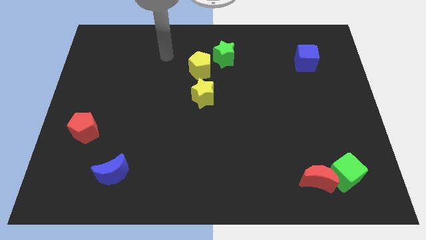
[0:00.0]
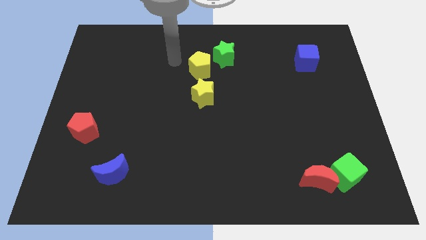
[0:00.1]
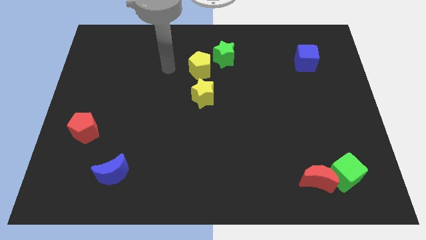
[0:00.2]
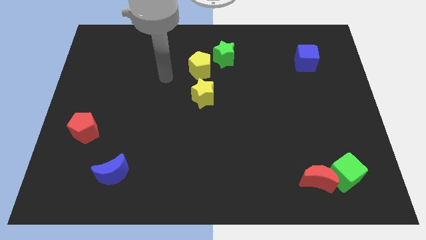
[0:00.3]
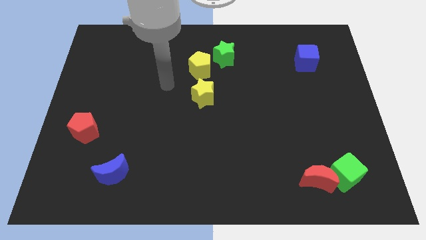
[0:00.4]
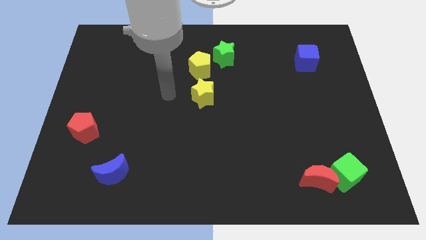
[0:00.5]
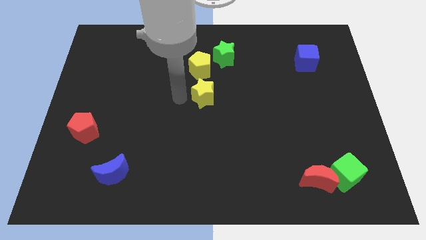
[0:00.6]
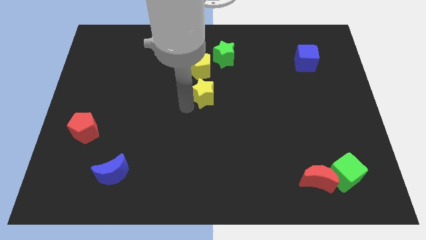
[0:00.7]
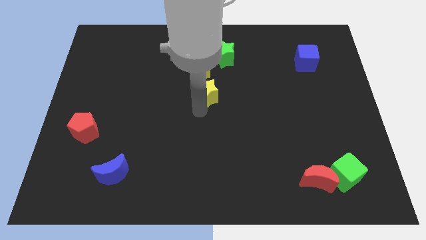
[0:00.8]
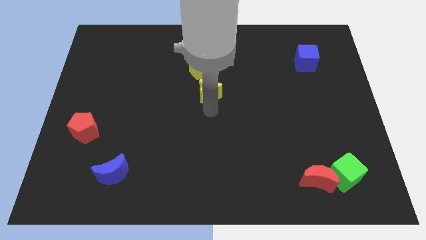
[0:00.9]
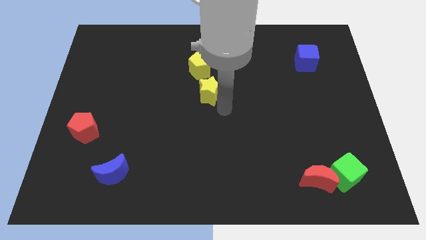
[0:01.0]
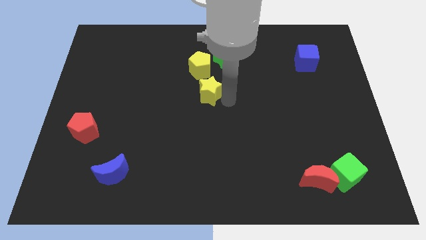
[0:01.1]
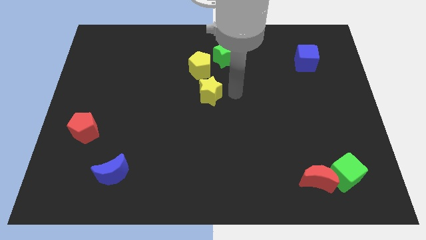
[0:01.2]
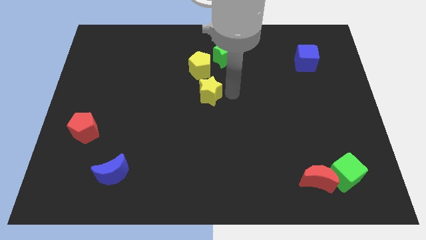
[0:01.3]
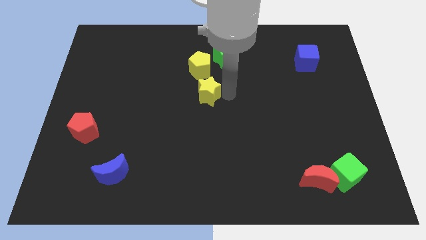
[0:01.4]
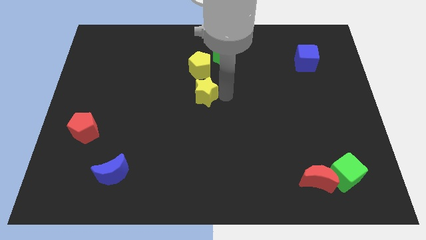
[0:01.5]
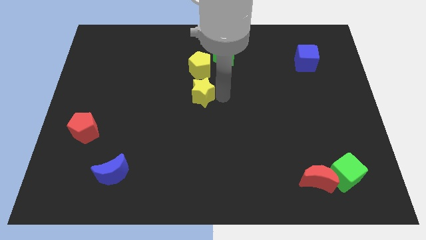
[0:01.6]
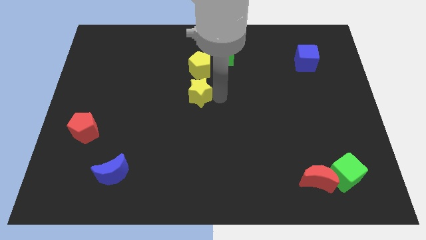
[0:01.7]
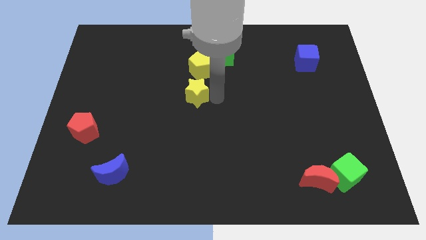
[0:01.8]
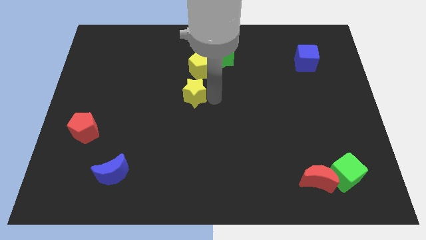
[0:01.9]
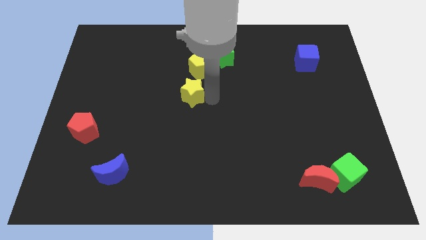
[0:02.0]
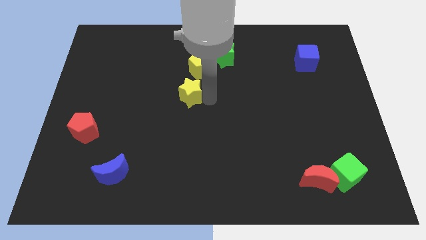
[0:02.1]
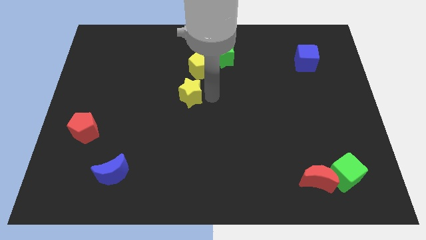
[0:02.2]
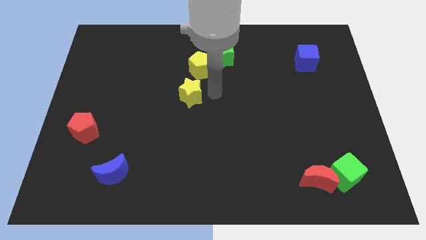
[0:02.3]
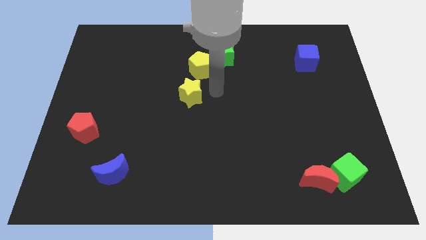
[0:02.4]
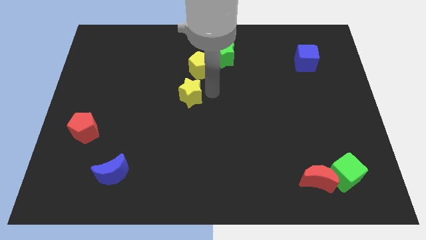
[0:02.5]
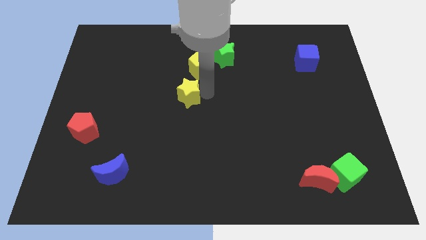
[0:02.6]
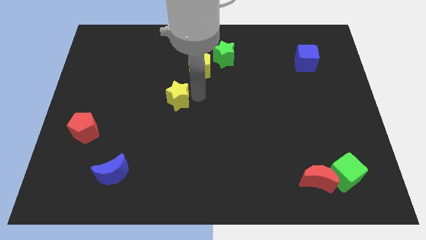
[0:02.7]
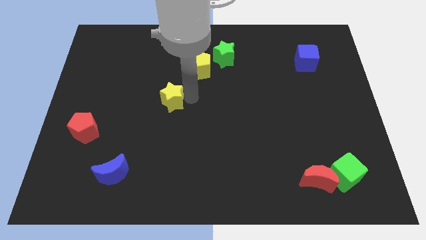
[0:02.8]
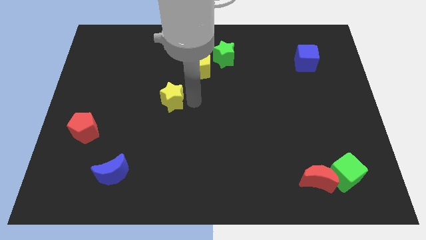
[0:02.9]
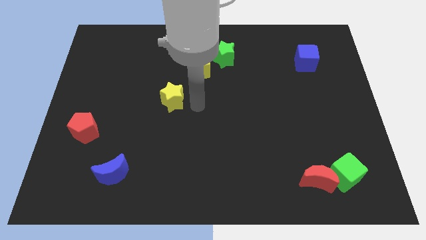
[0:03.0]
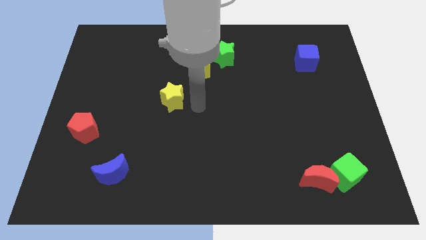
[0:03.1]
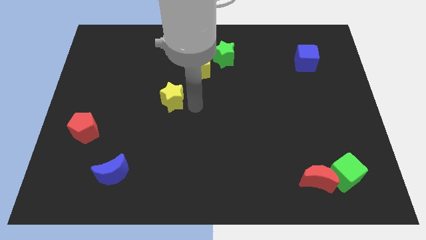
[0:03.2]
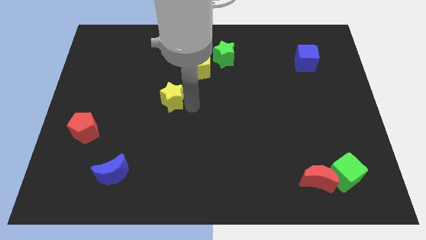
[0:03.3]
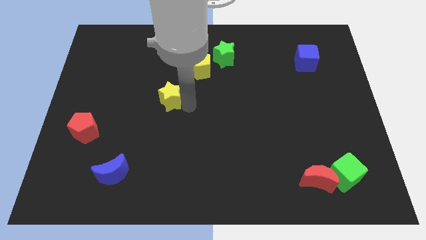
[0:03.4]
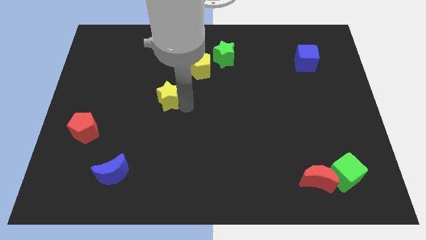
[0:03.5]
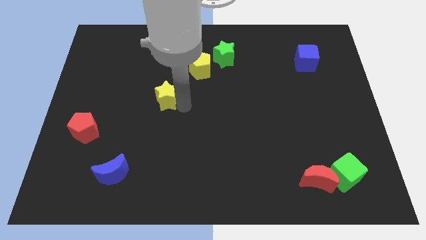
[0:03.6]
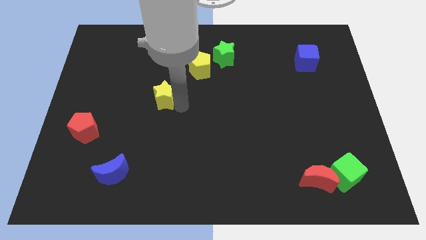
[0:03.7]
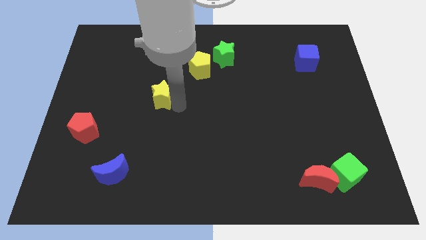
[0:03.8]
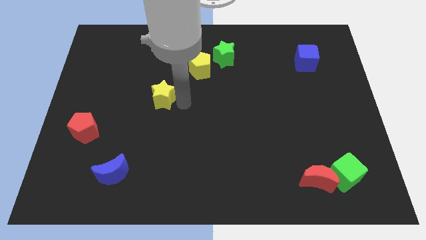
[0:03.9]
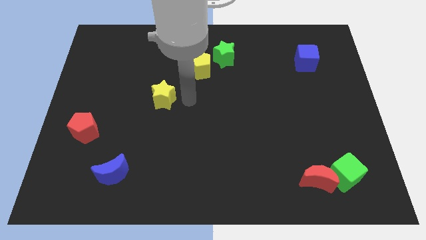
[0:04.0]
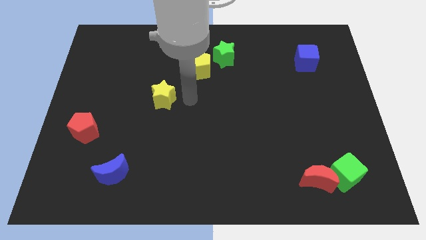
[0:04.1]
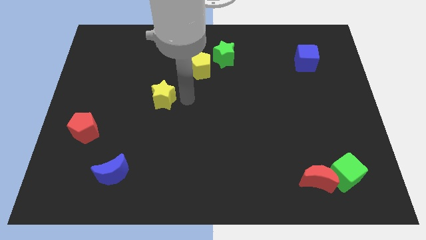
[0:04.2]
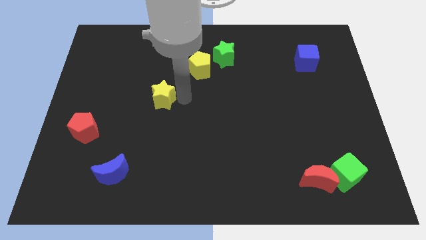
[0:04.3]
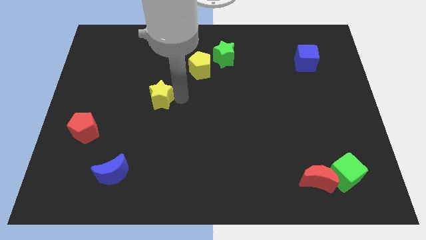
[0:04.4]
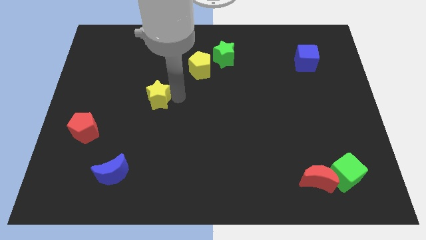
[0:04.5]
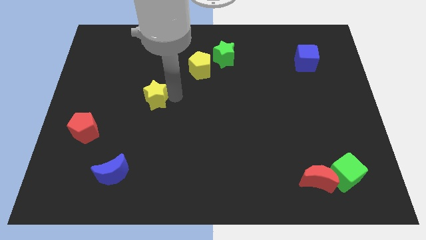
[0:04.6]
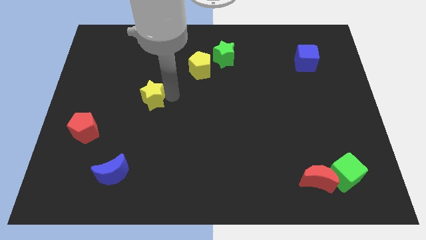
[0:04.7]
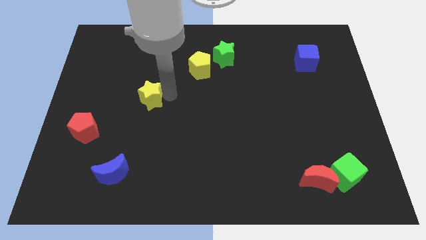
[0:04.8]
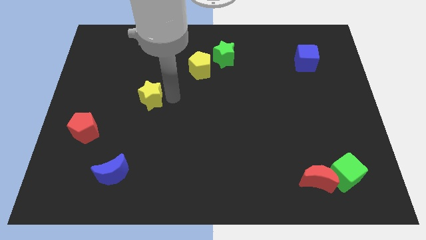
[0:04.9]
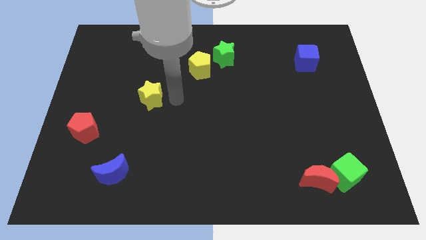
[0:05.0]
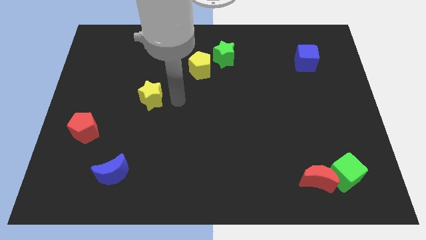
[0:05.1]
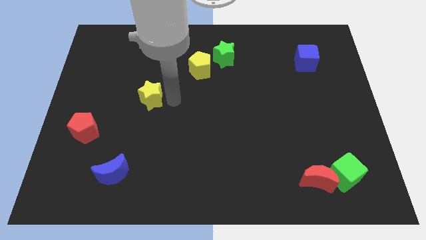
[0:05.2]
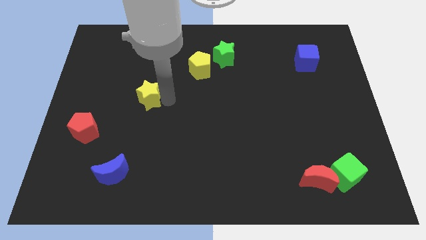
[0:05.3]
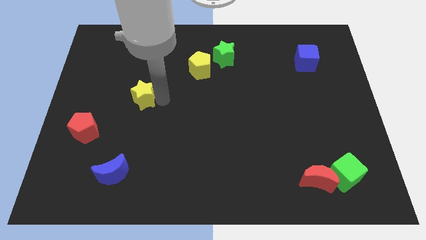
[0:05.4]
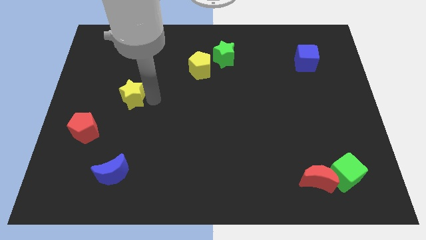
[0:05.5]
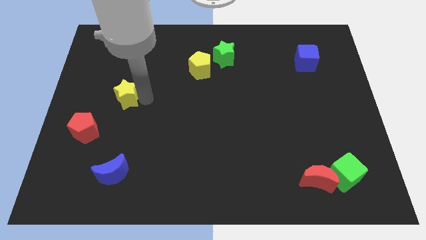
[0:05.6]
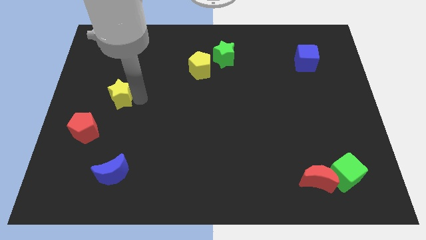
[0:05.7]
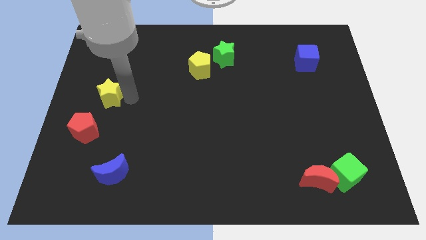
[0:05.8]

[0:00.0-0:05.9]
slide the yellow star to the left side of the board
